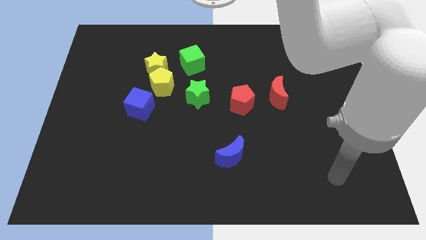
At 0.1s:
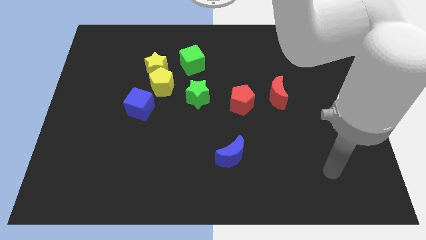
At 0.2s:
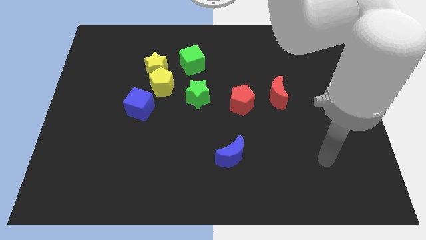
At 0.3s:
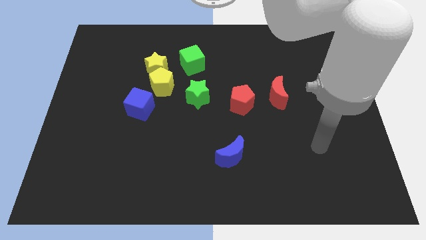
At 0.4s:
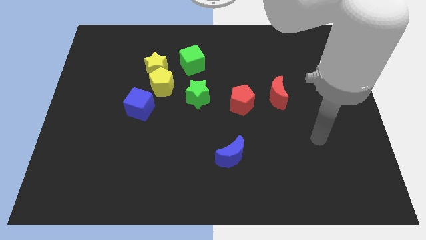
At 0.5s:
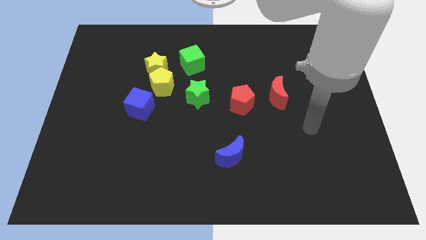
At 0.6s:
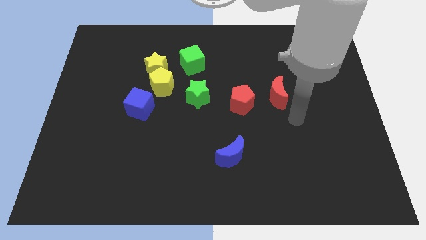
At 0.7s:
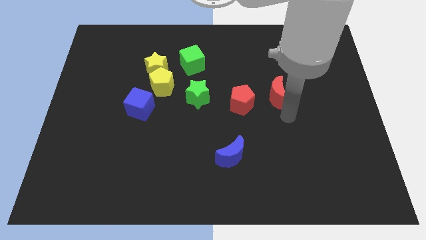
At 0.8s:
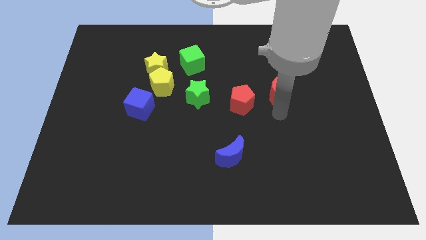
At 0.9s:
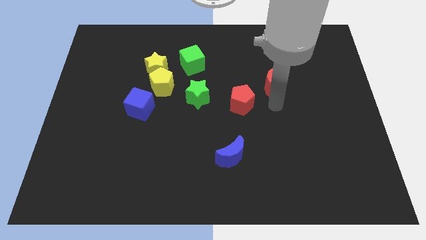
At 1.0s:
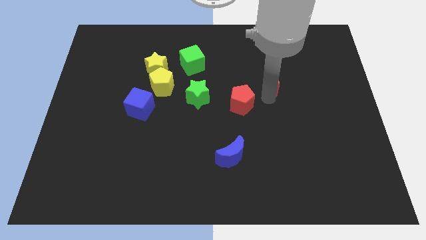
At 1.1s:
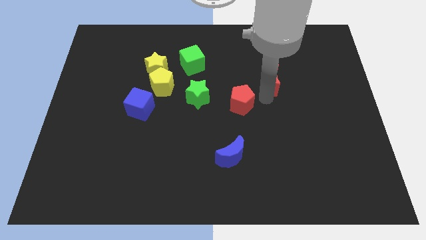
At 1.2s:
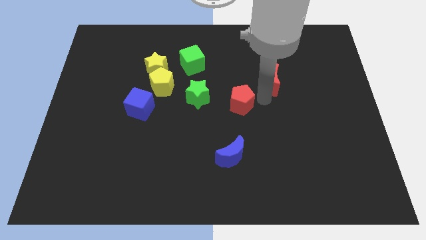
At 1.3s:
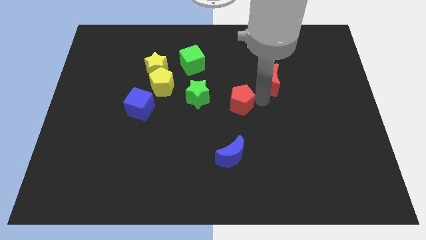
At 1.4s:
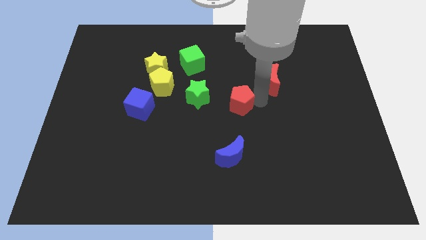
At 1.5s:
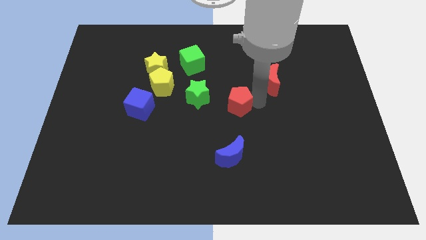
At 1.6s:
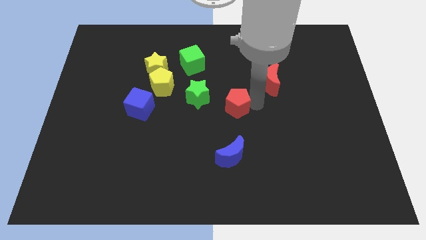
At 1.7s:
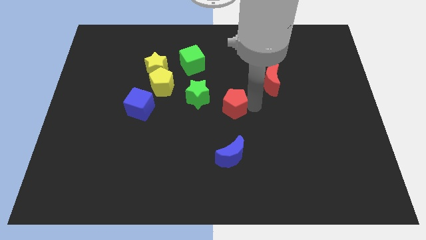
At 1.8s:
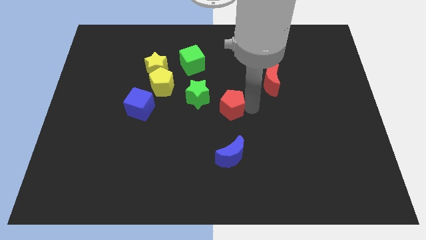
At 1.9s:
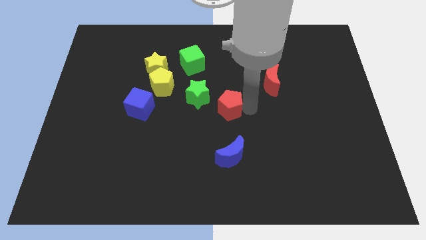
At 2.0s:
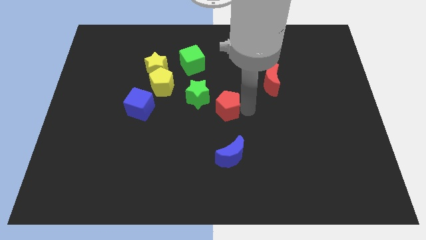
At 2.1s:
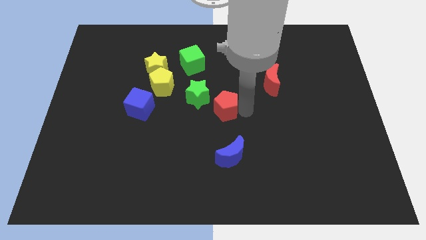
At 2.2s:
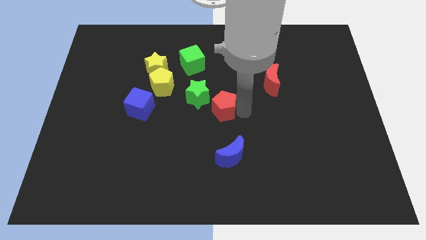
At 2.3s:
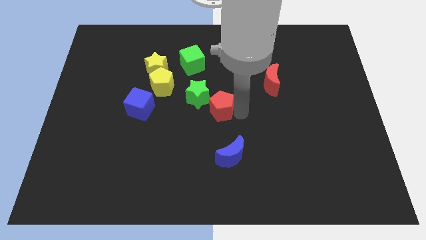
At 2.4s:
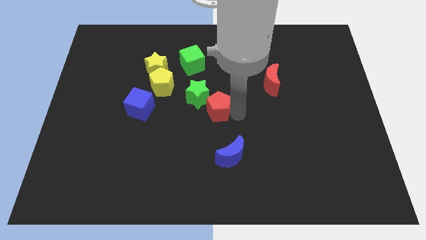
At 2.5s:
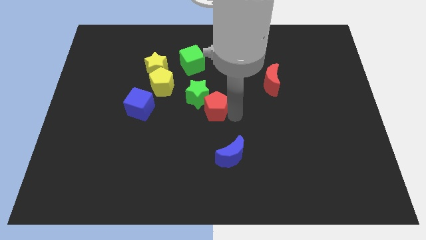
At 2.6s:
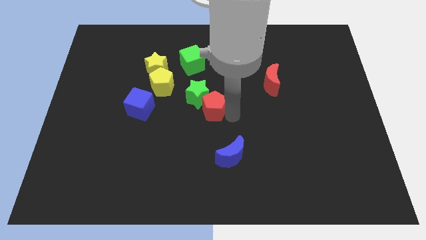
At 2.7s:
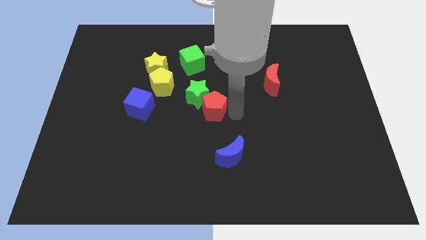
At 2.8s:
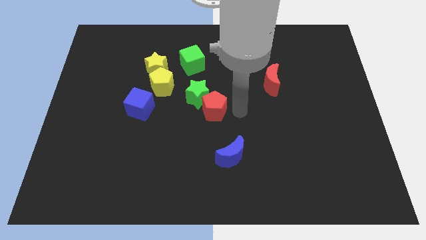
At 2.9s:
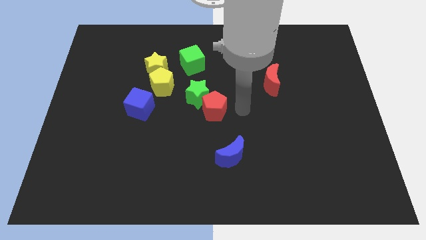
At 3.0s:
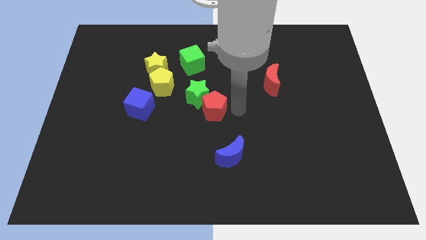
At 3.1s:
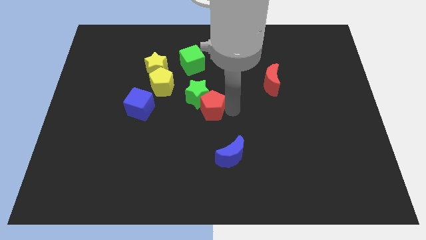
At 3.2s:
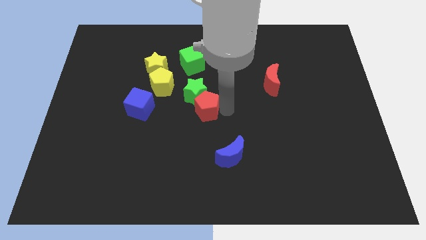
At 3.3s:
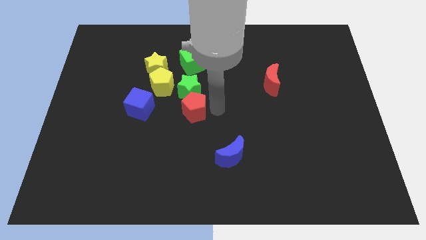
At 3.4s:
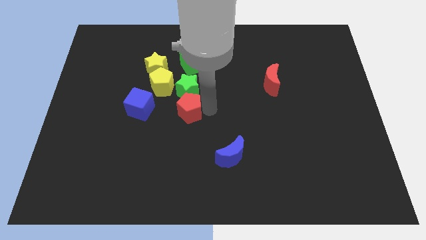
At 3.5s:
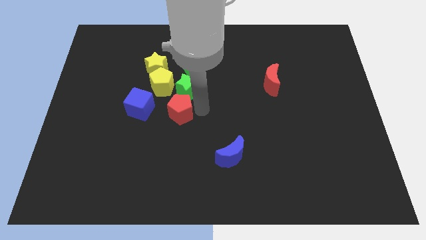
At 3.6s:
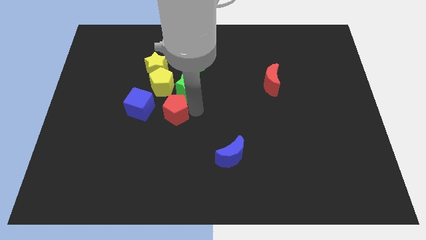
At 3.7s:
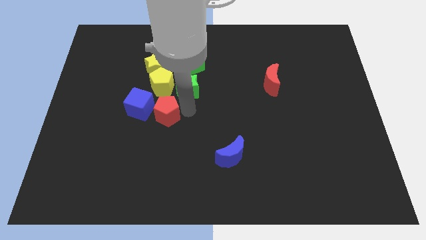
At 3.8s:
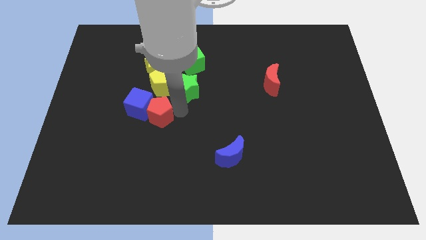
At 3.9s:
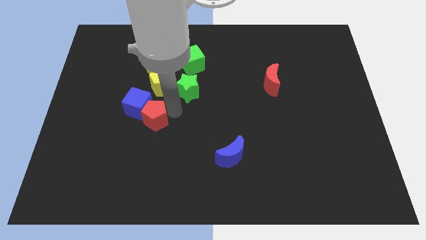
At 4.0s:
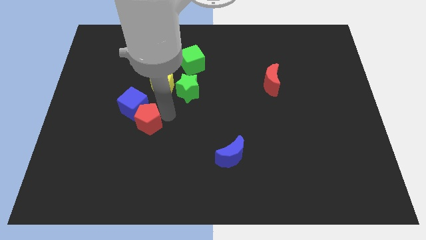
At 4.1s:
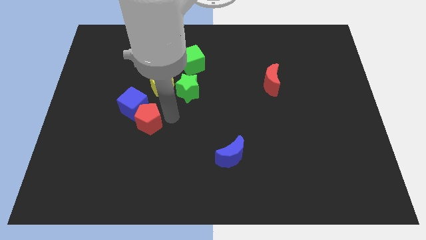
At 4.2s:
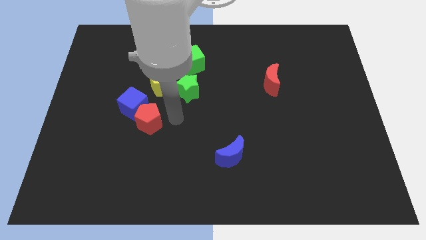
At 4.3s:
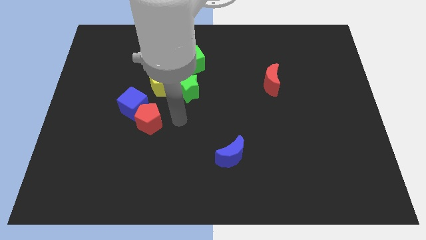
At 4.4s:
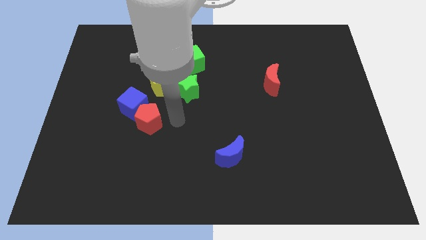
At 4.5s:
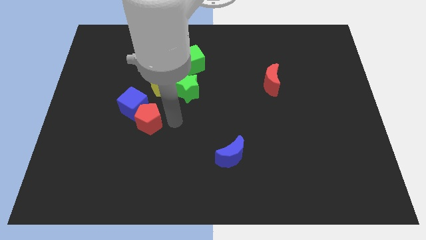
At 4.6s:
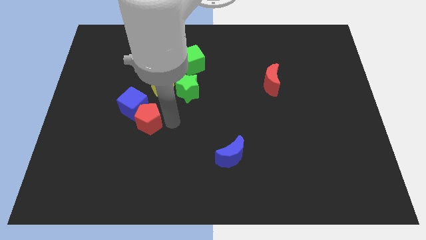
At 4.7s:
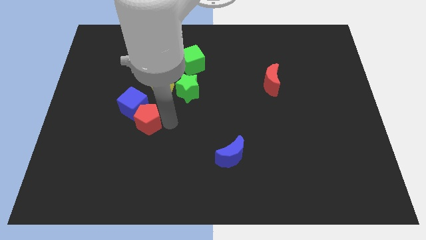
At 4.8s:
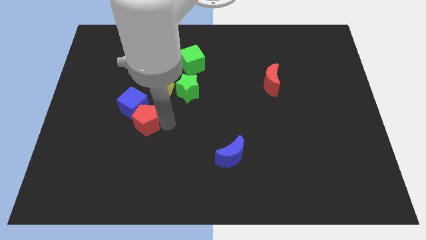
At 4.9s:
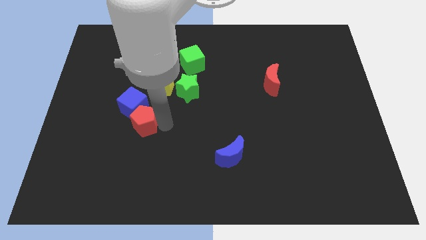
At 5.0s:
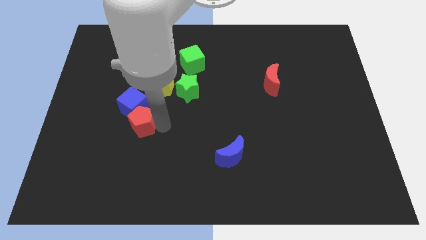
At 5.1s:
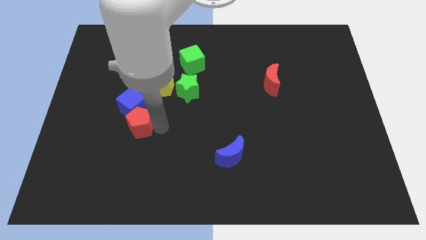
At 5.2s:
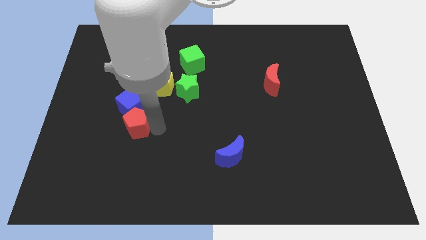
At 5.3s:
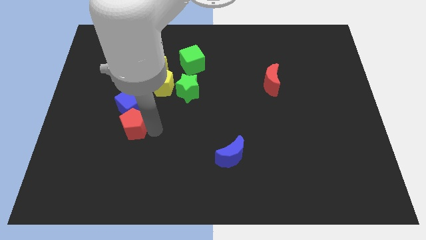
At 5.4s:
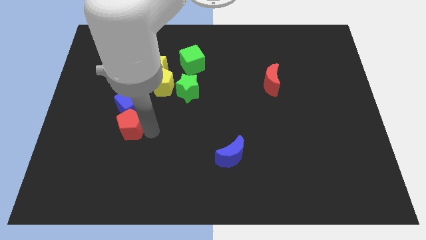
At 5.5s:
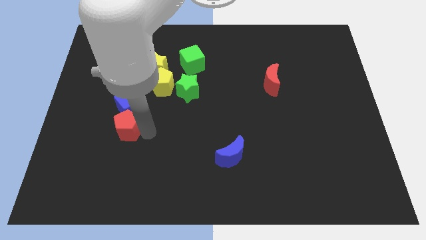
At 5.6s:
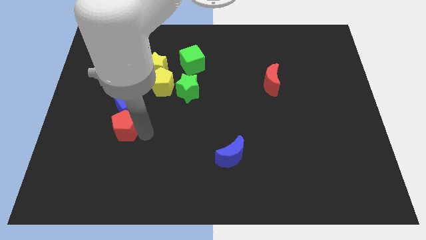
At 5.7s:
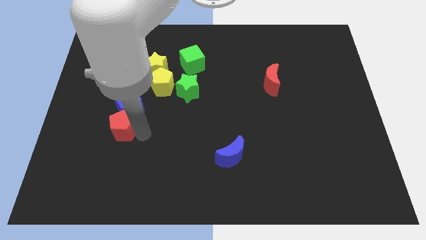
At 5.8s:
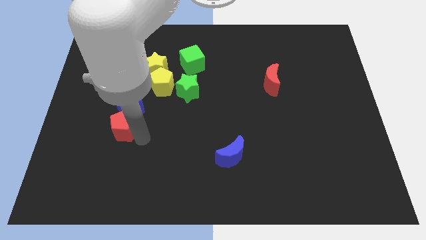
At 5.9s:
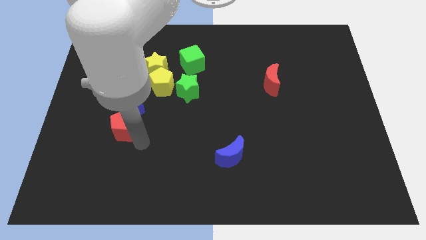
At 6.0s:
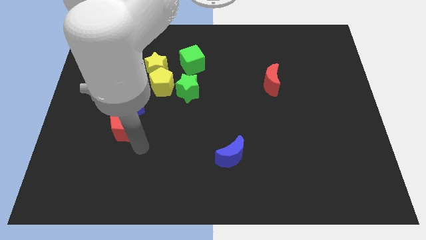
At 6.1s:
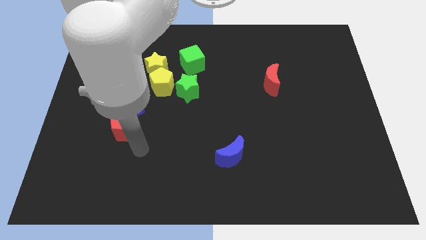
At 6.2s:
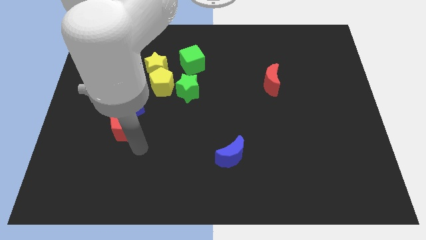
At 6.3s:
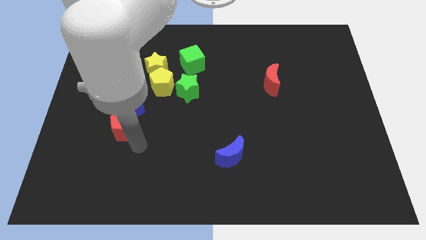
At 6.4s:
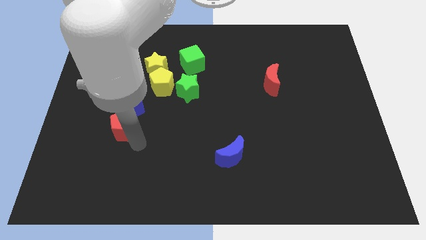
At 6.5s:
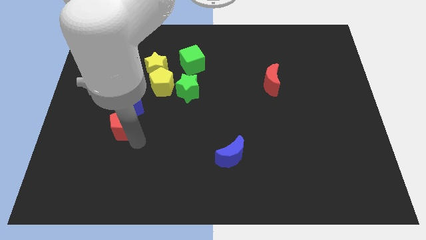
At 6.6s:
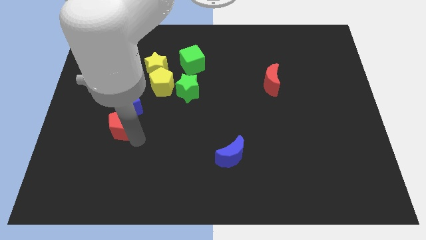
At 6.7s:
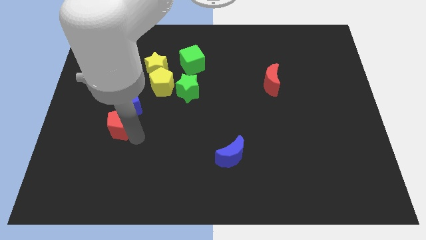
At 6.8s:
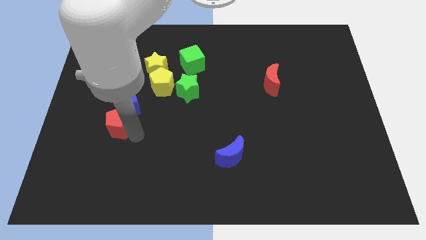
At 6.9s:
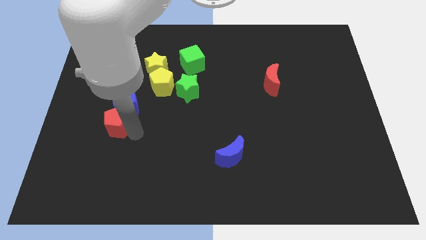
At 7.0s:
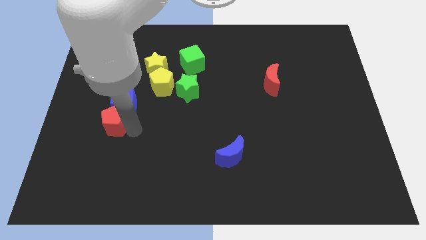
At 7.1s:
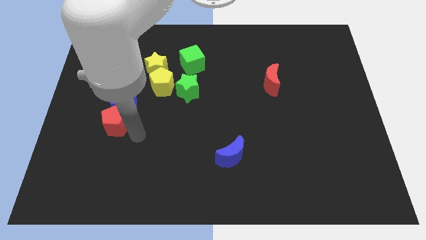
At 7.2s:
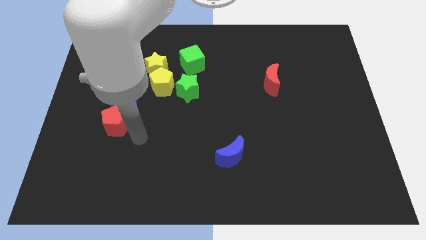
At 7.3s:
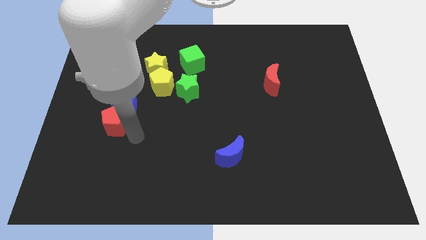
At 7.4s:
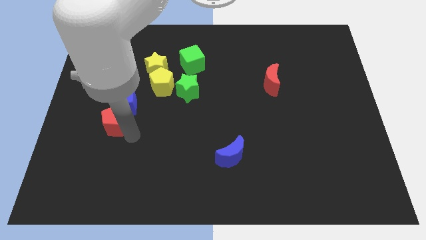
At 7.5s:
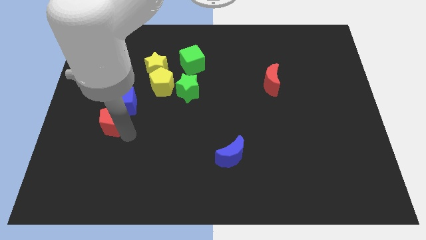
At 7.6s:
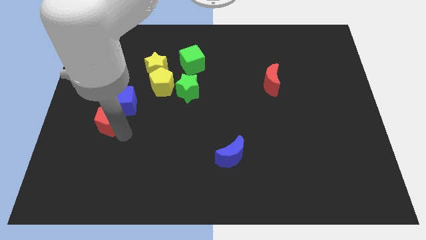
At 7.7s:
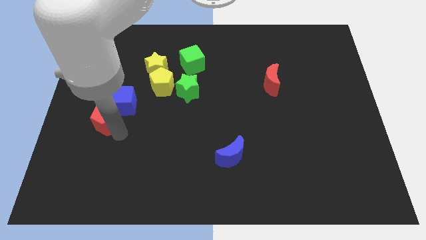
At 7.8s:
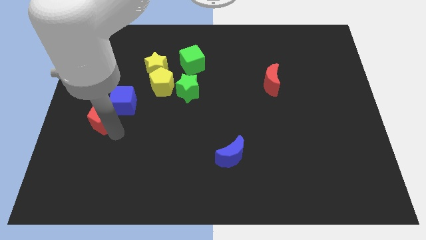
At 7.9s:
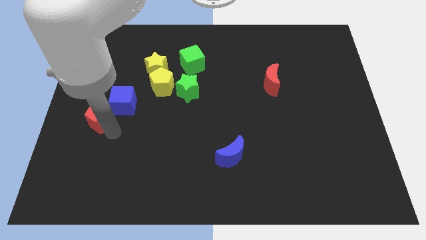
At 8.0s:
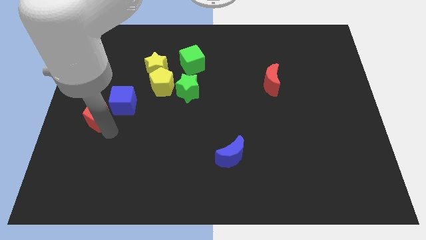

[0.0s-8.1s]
put the red pentagon to the left side
